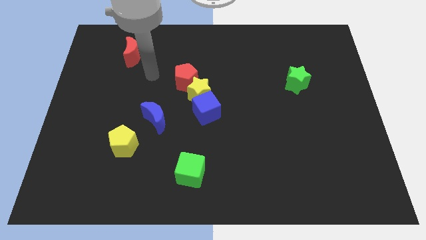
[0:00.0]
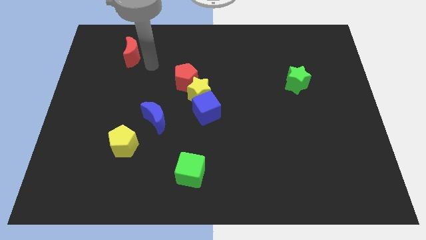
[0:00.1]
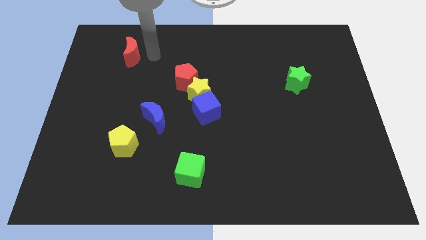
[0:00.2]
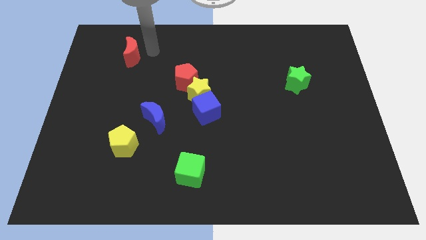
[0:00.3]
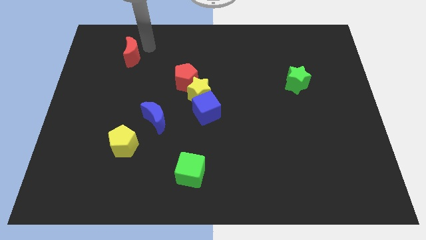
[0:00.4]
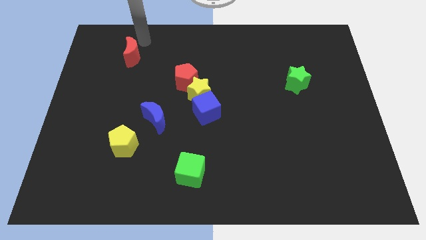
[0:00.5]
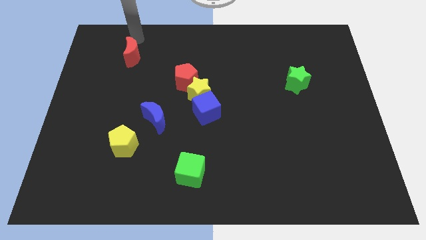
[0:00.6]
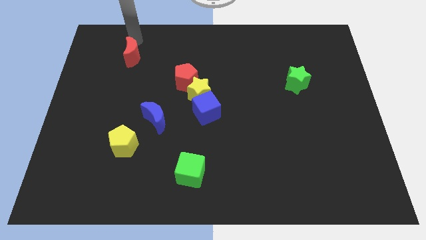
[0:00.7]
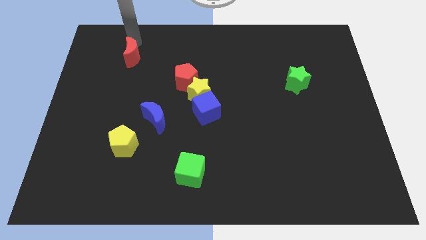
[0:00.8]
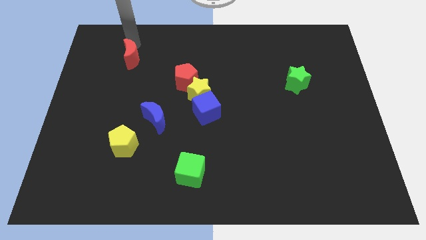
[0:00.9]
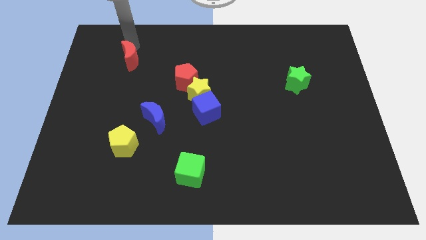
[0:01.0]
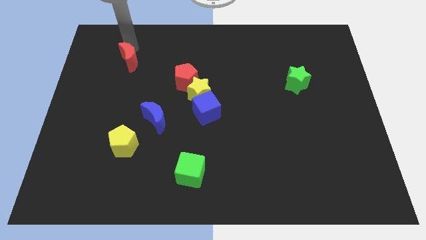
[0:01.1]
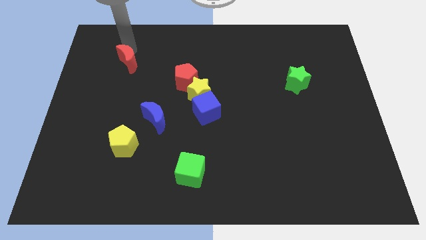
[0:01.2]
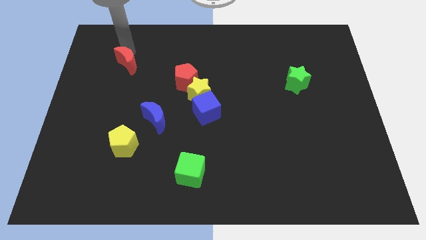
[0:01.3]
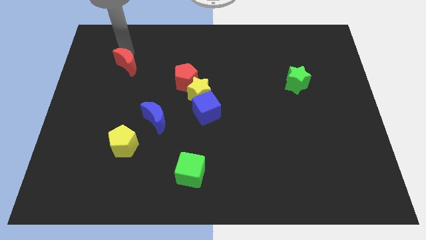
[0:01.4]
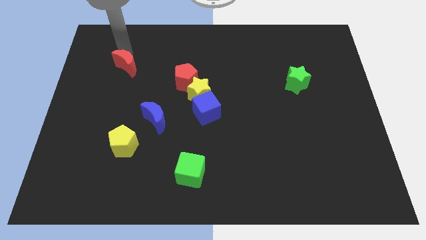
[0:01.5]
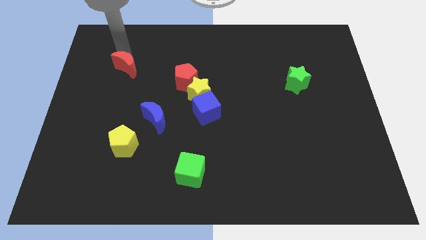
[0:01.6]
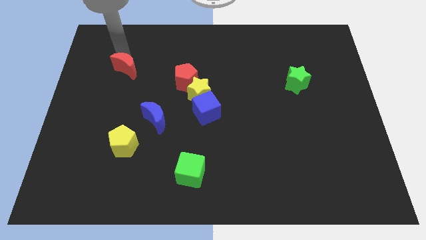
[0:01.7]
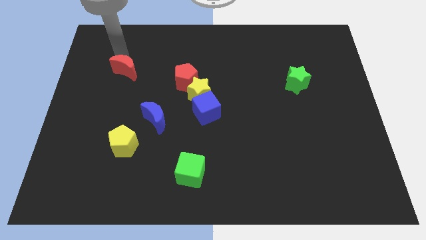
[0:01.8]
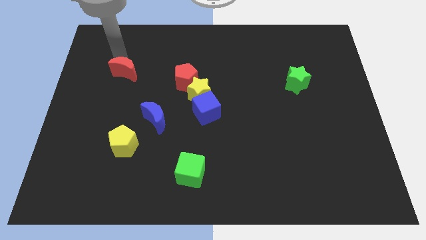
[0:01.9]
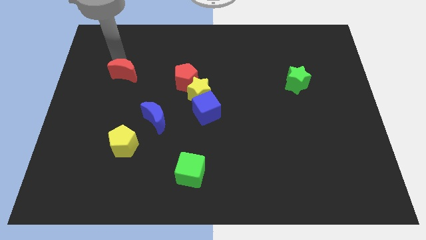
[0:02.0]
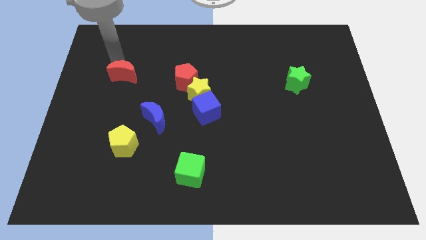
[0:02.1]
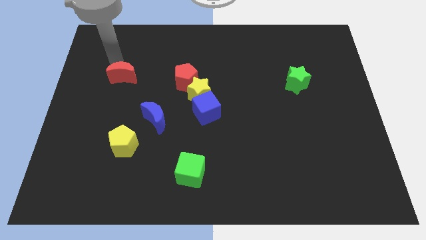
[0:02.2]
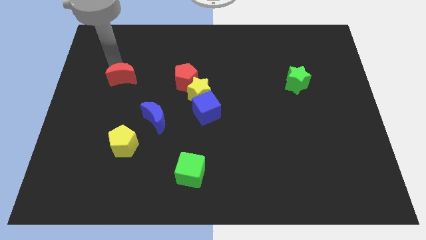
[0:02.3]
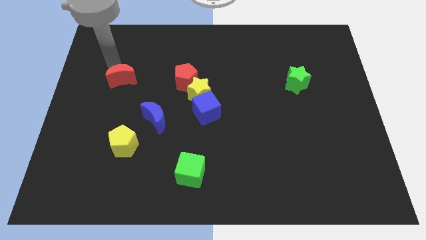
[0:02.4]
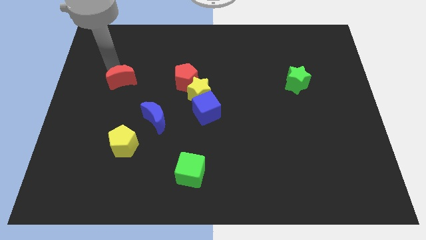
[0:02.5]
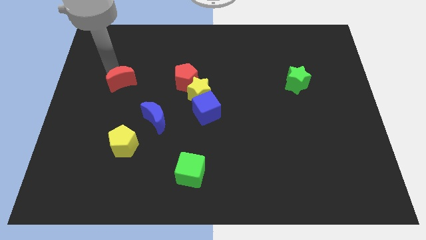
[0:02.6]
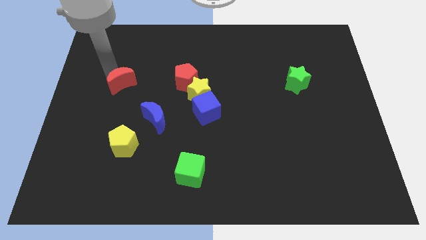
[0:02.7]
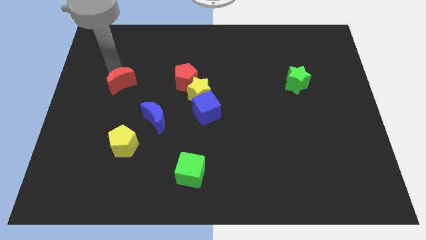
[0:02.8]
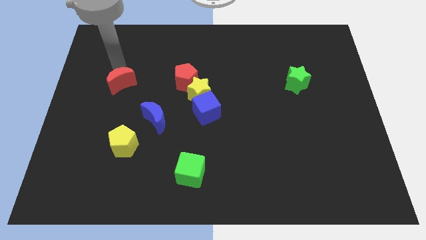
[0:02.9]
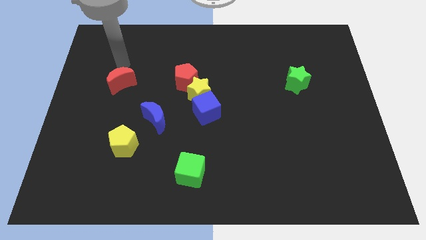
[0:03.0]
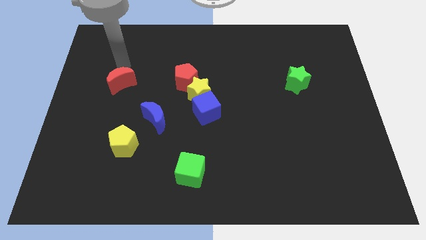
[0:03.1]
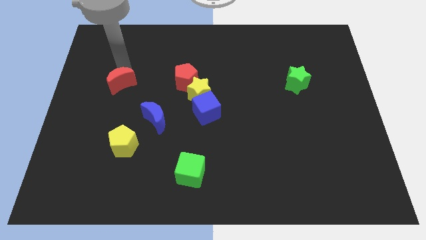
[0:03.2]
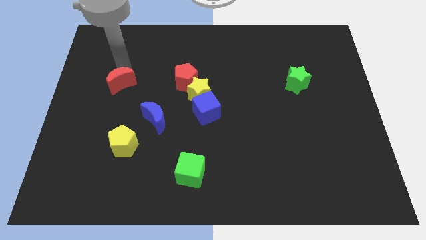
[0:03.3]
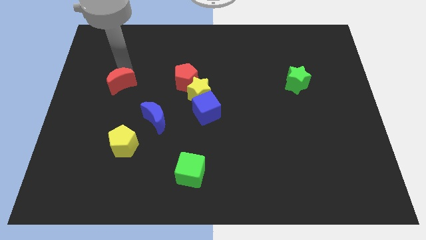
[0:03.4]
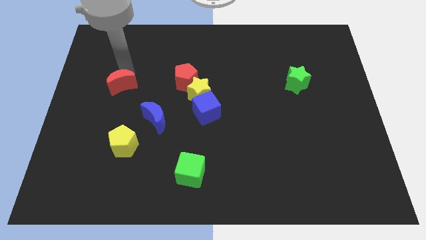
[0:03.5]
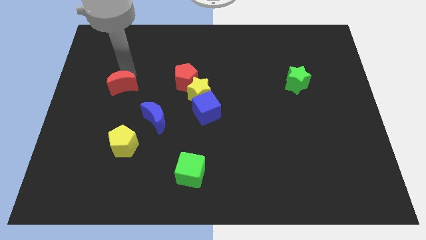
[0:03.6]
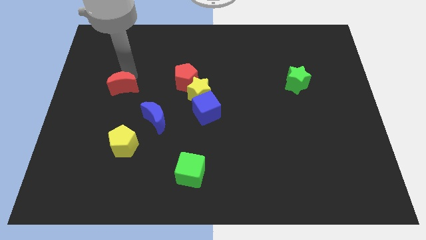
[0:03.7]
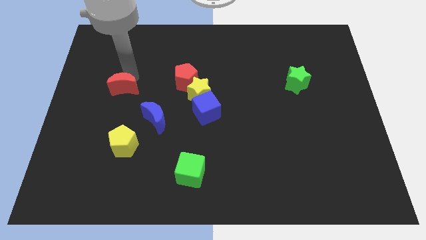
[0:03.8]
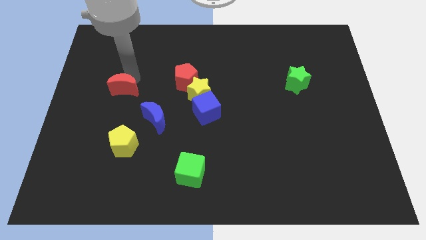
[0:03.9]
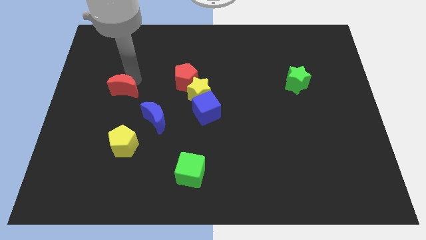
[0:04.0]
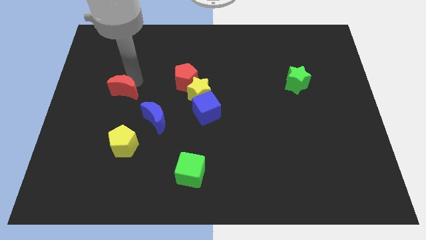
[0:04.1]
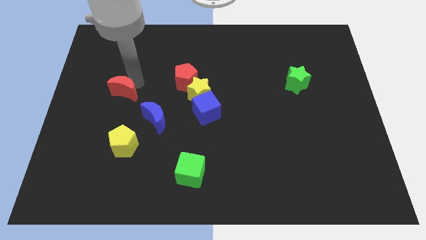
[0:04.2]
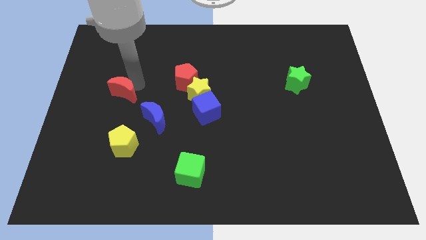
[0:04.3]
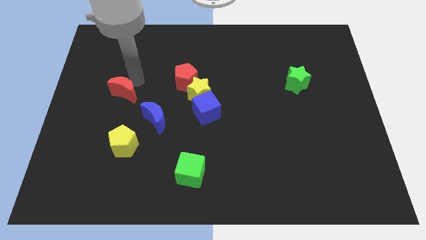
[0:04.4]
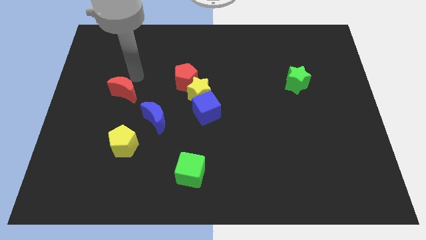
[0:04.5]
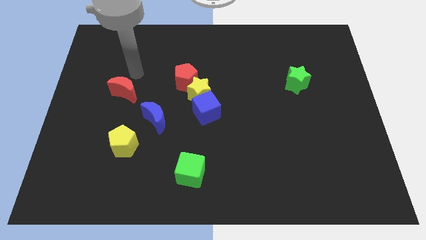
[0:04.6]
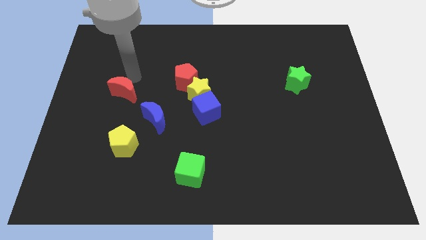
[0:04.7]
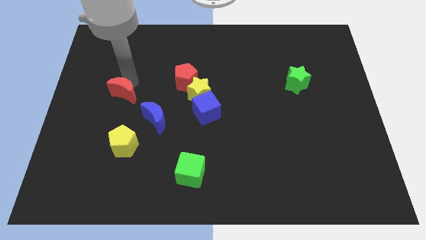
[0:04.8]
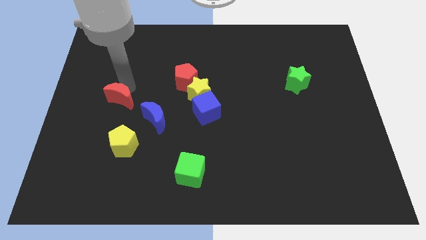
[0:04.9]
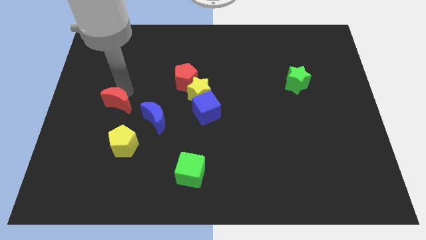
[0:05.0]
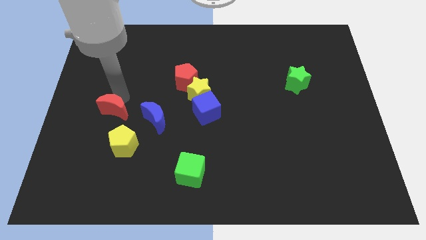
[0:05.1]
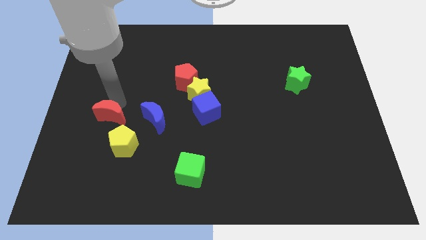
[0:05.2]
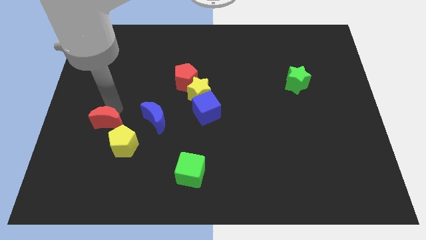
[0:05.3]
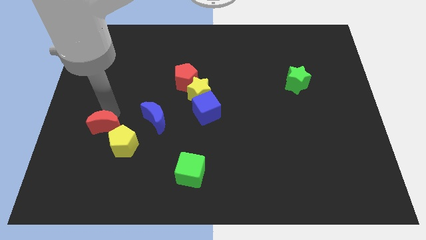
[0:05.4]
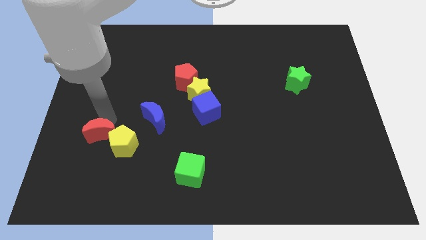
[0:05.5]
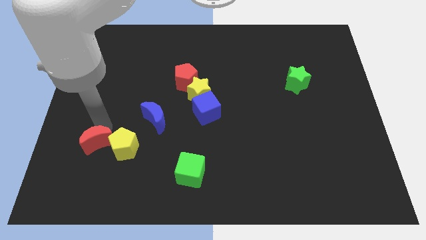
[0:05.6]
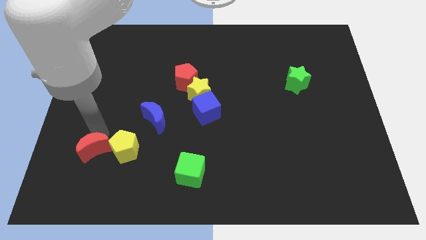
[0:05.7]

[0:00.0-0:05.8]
push the red moon to the bottom left side of the yellow pentagon

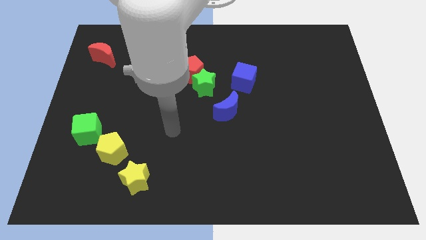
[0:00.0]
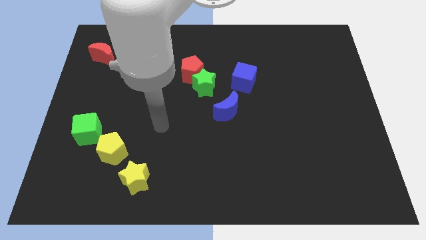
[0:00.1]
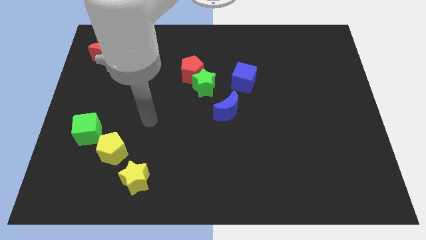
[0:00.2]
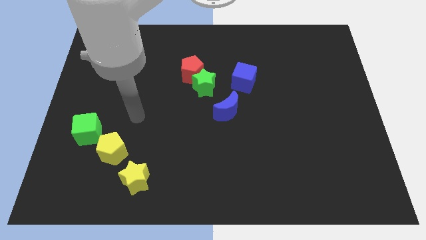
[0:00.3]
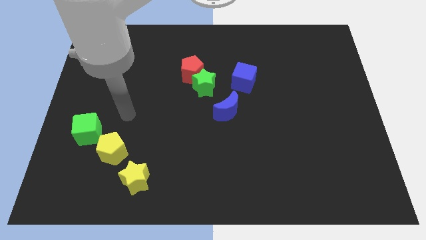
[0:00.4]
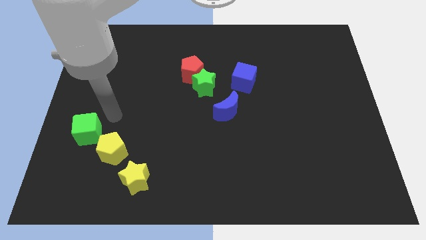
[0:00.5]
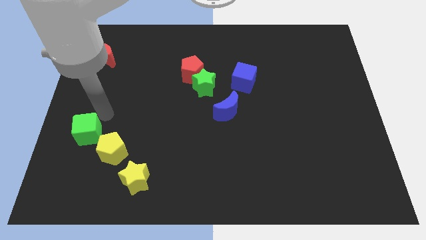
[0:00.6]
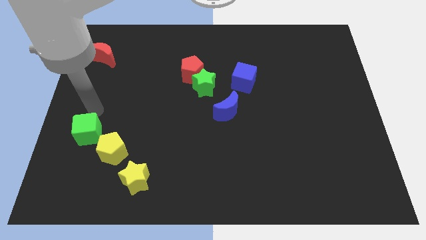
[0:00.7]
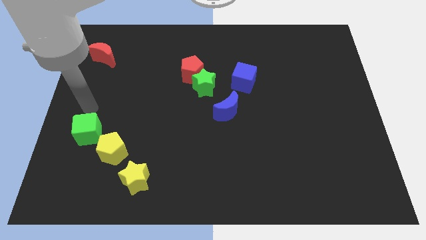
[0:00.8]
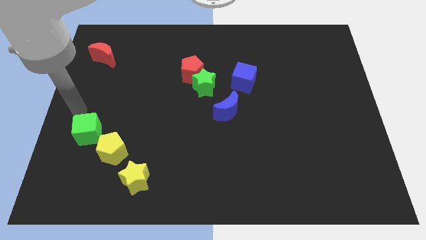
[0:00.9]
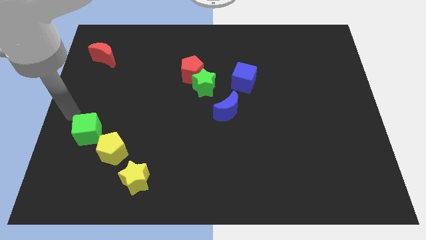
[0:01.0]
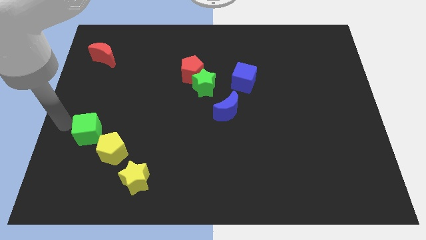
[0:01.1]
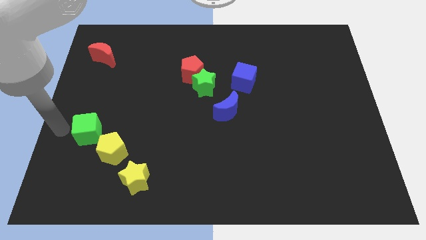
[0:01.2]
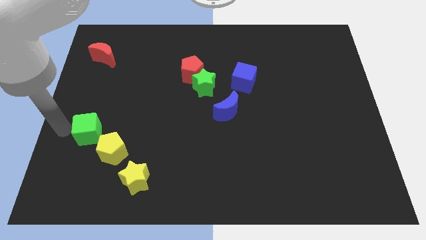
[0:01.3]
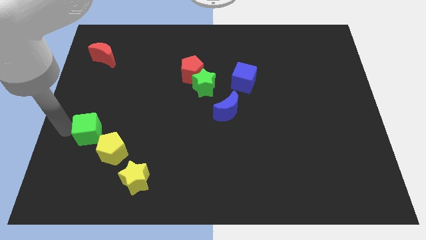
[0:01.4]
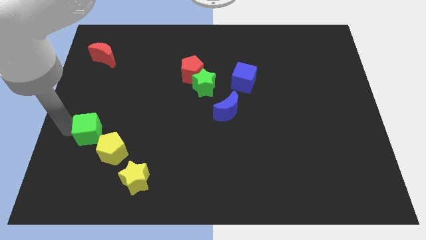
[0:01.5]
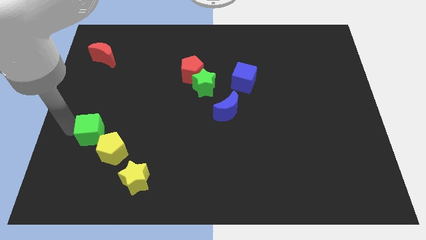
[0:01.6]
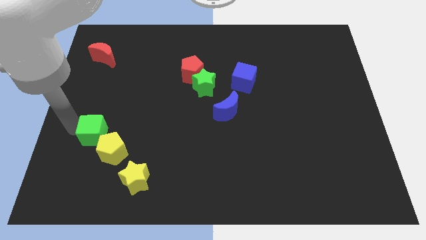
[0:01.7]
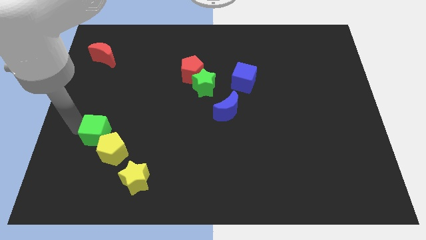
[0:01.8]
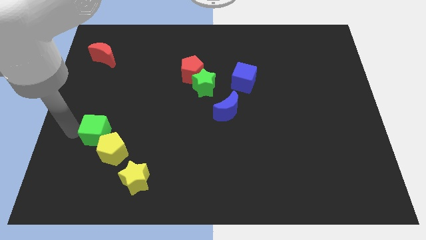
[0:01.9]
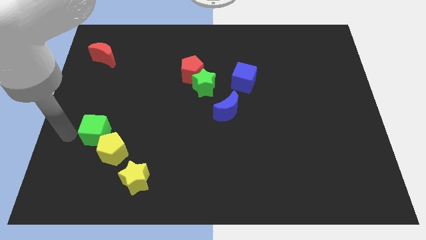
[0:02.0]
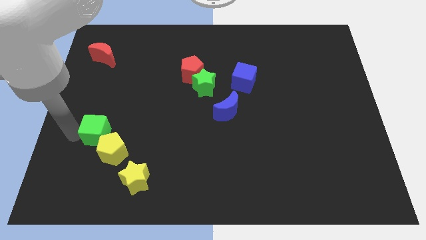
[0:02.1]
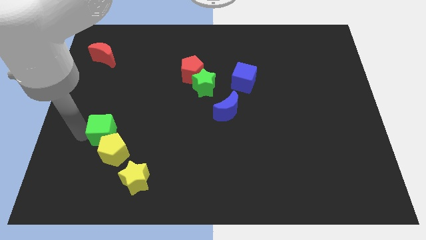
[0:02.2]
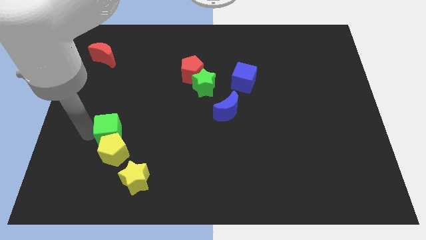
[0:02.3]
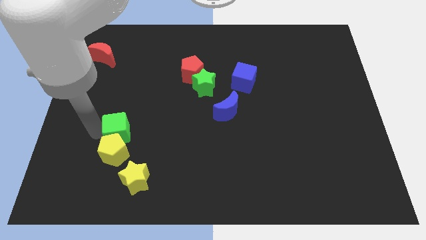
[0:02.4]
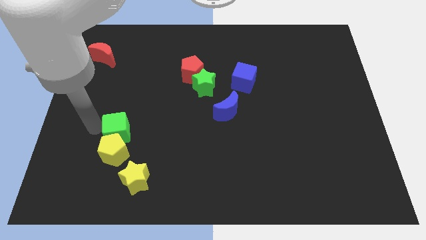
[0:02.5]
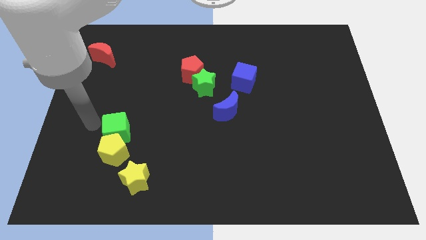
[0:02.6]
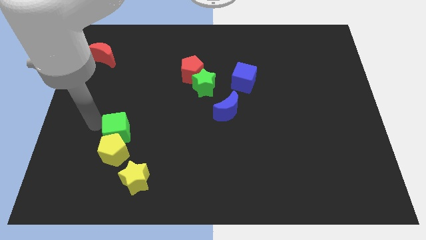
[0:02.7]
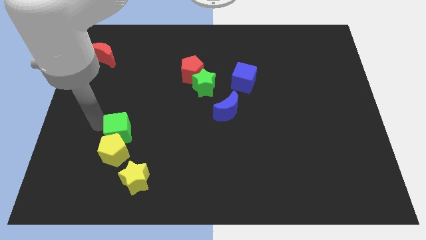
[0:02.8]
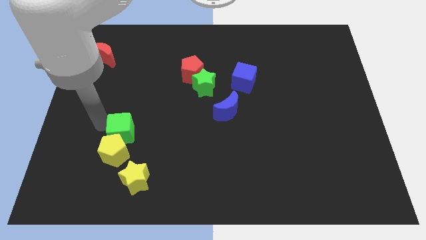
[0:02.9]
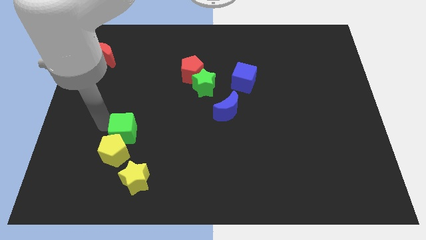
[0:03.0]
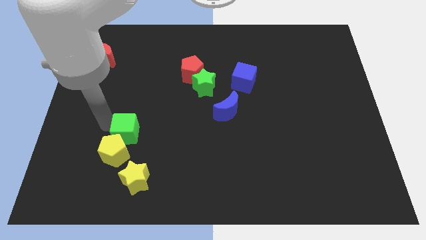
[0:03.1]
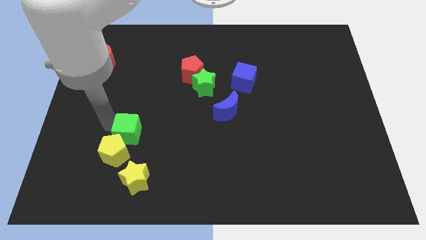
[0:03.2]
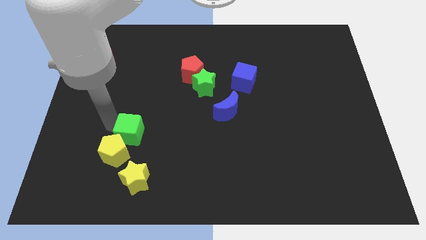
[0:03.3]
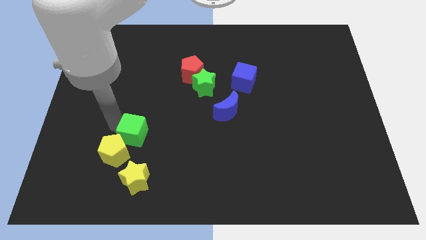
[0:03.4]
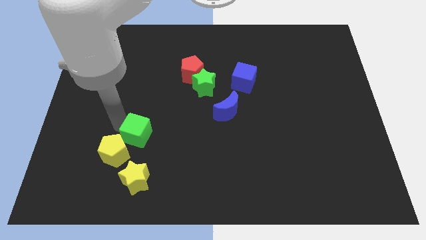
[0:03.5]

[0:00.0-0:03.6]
put the green cube just right of the yellow pentagon
